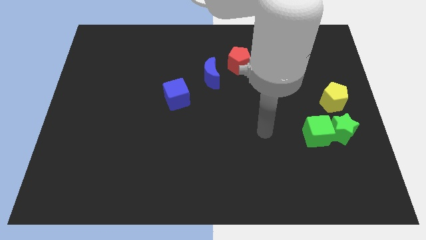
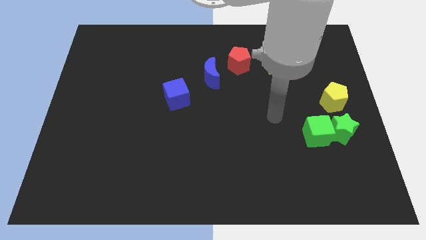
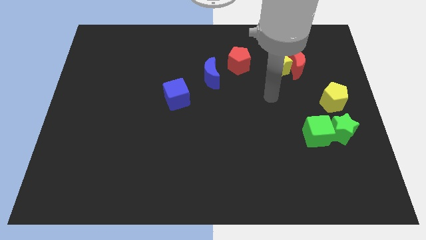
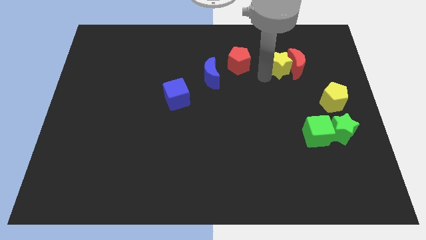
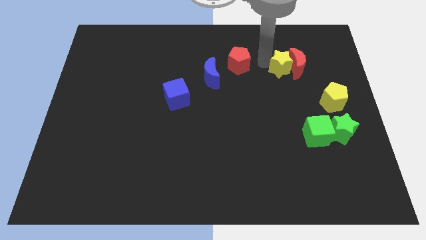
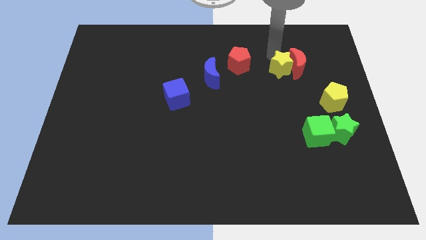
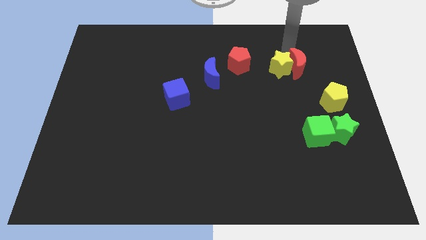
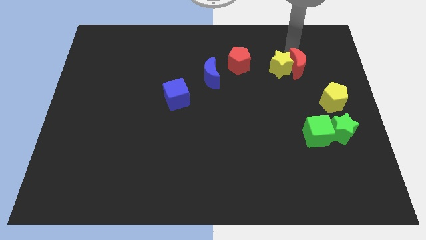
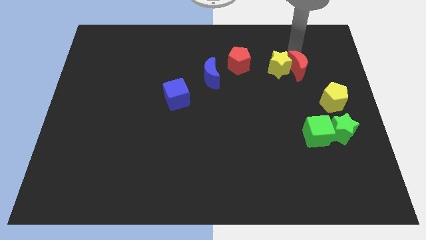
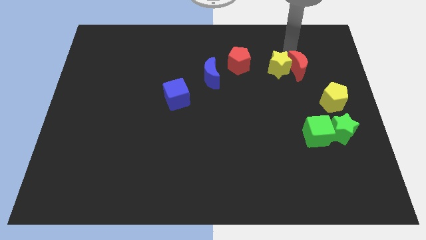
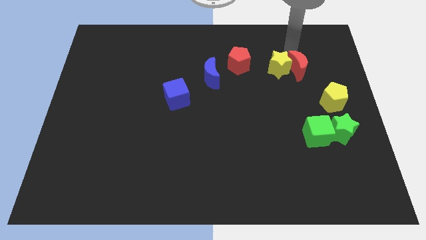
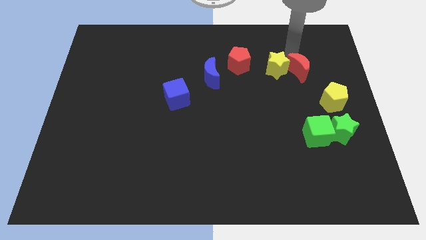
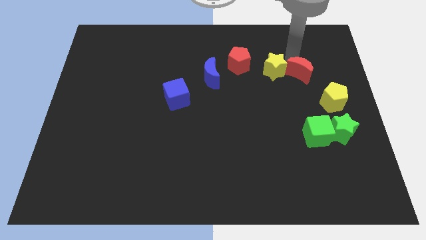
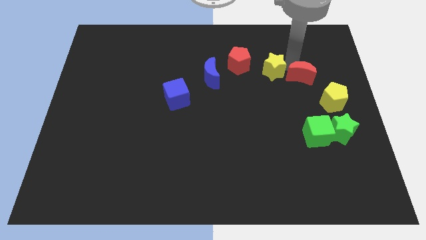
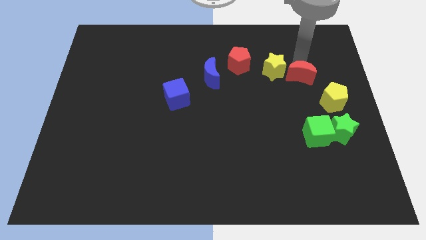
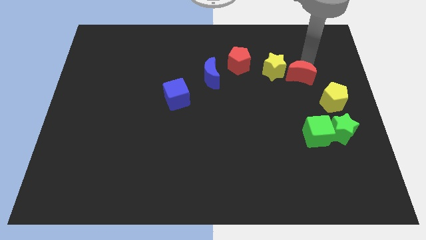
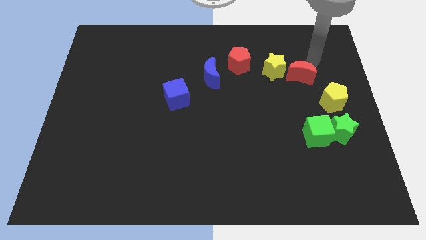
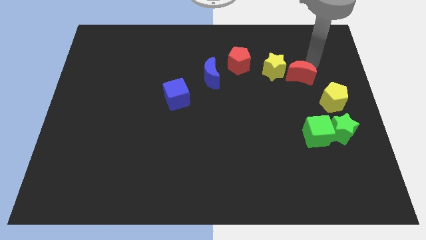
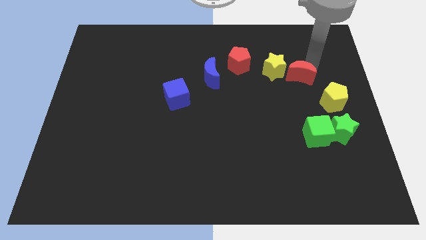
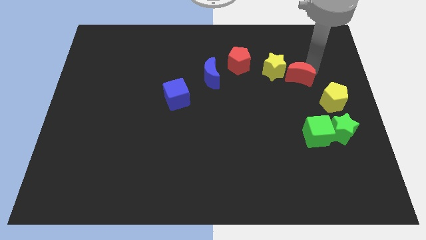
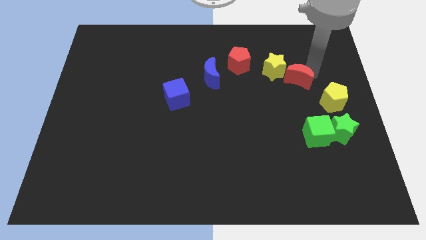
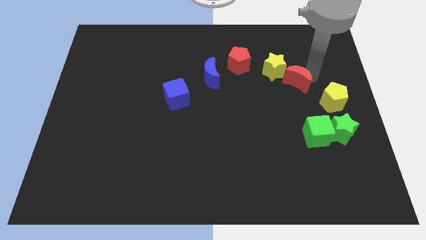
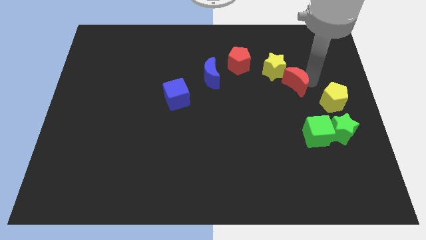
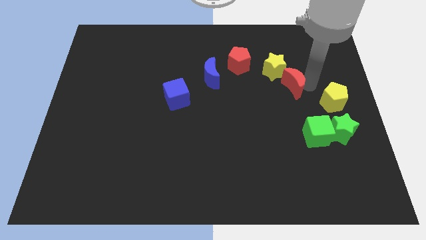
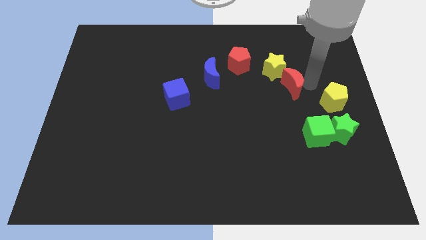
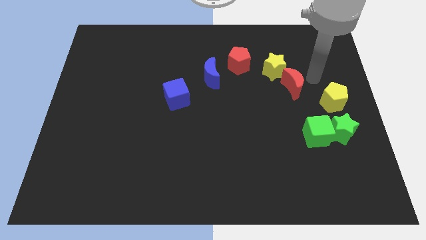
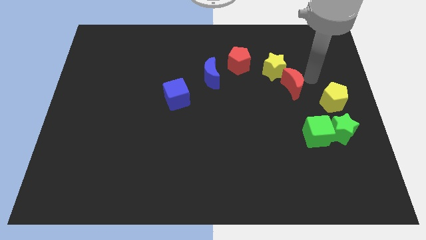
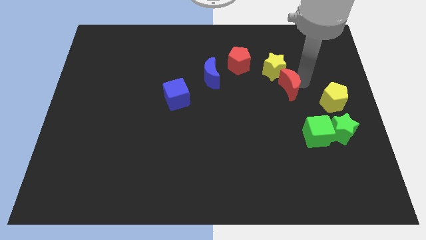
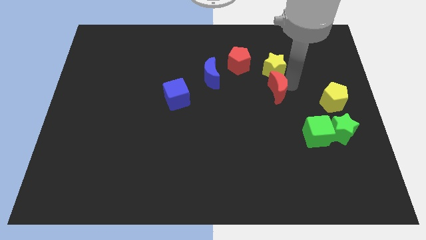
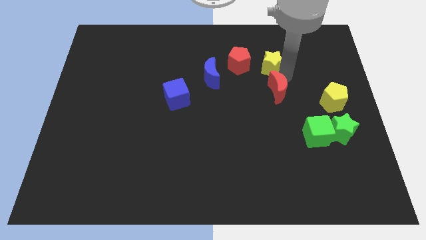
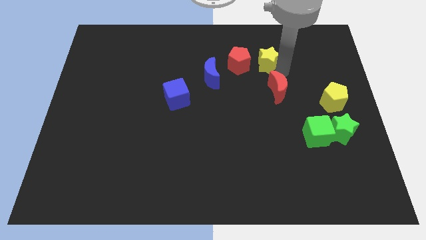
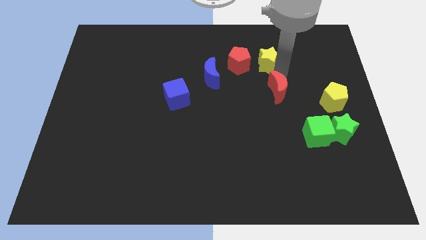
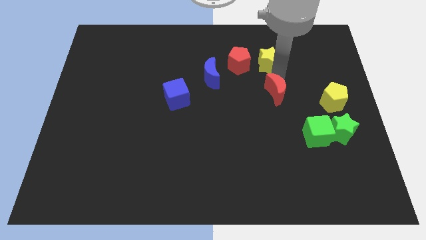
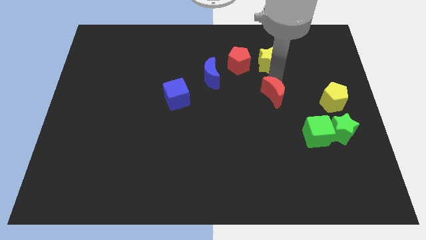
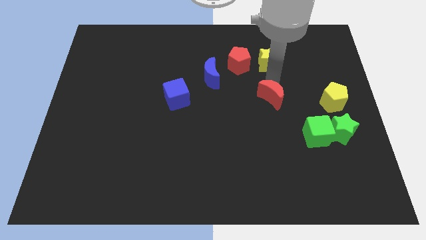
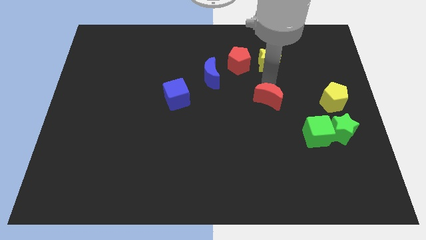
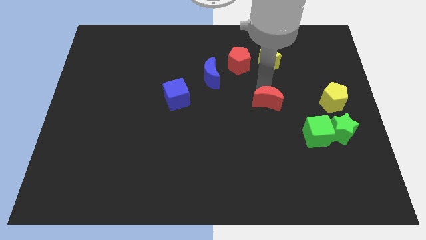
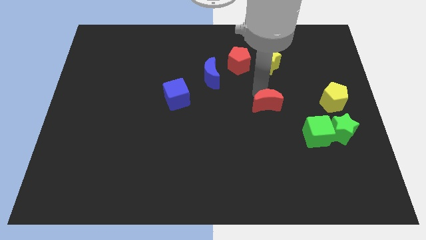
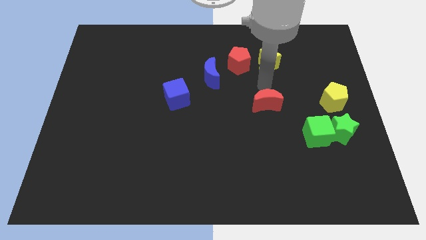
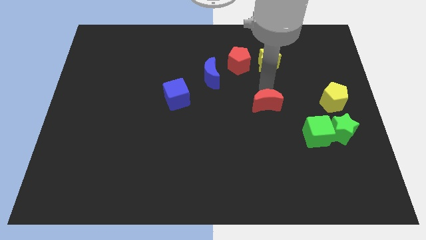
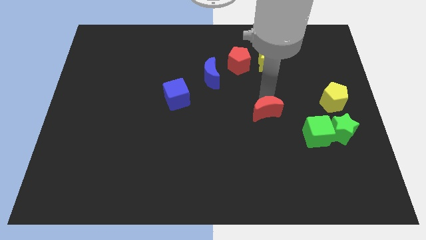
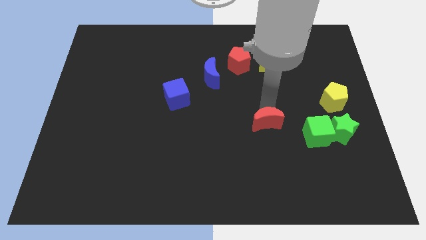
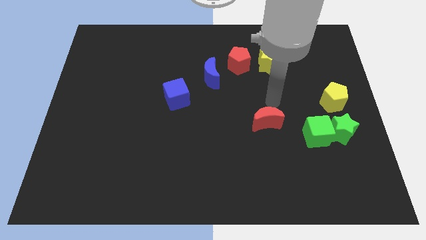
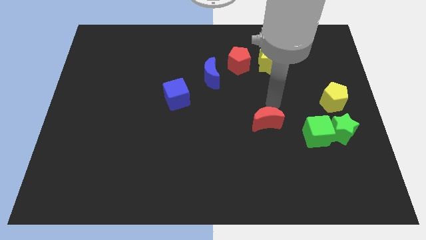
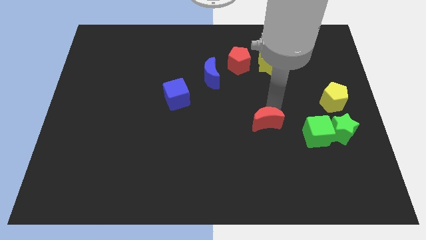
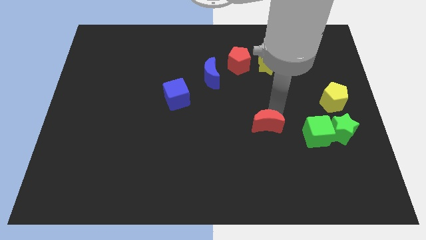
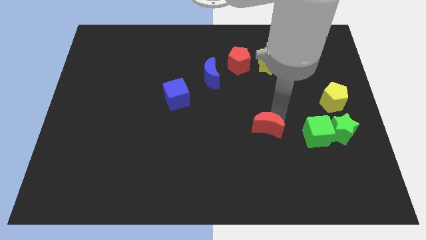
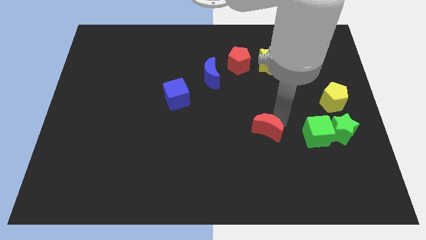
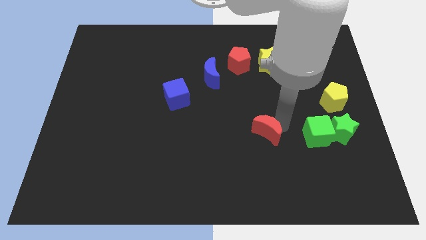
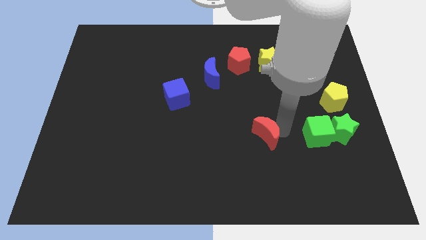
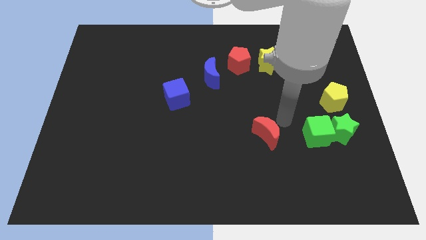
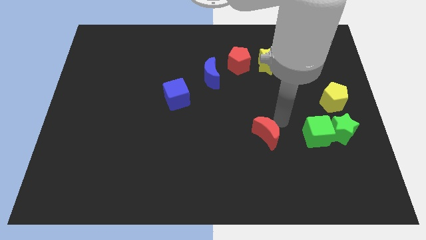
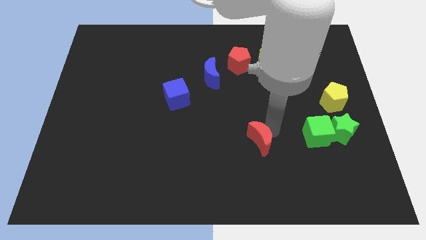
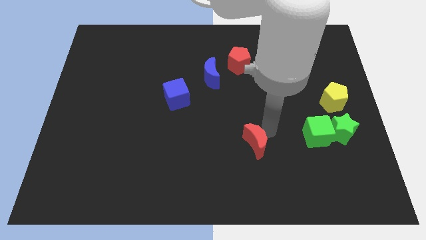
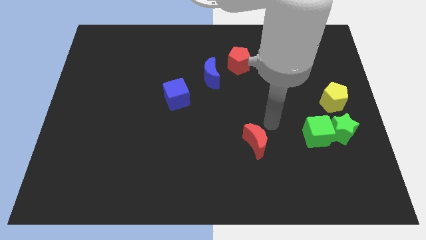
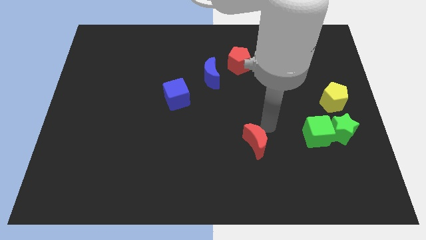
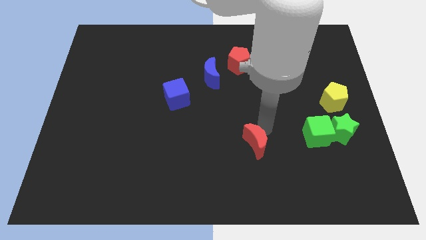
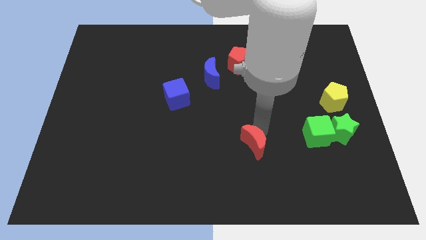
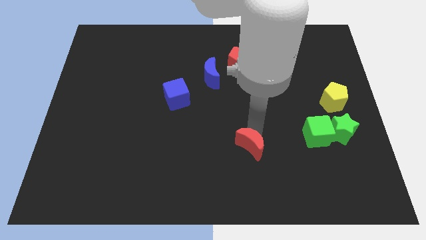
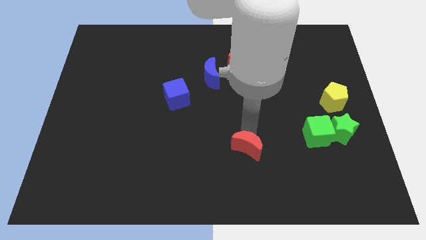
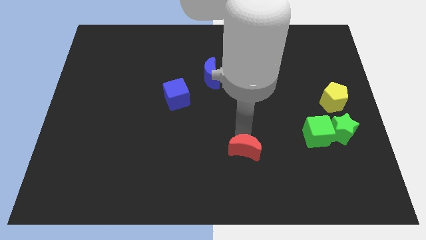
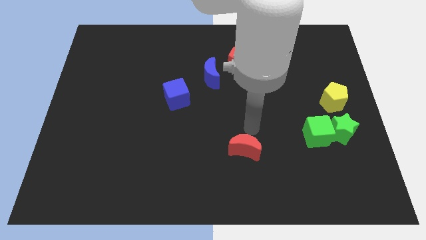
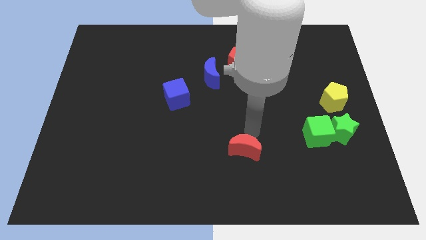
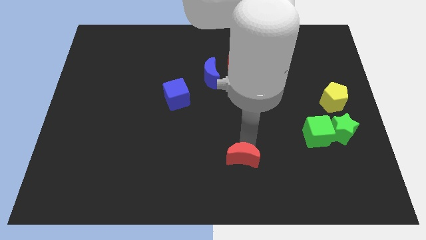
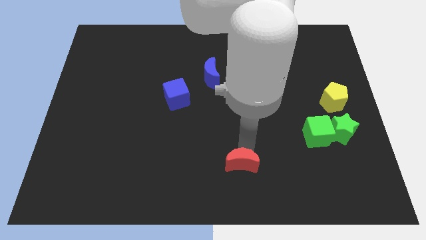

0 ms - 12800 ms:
slide the red moon to the bottom side

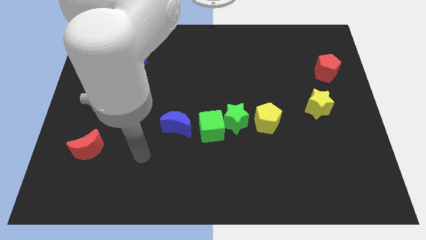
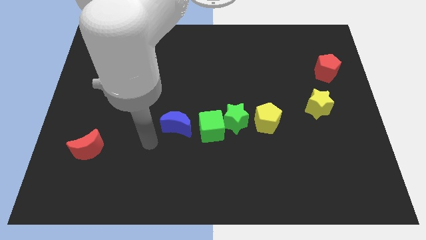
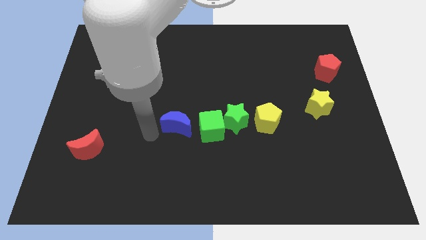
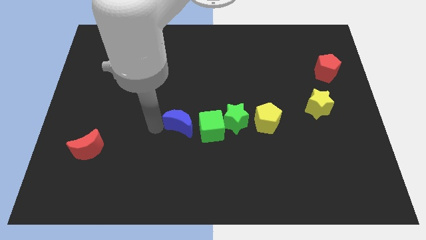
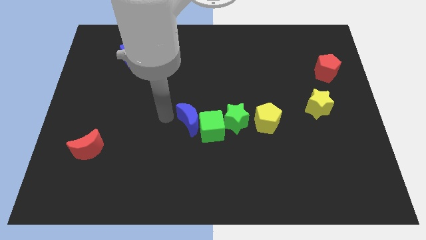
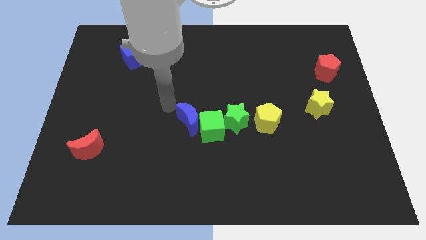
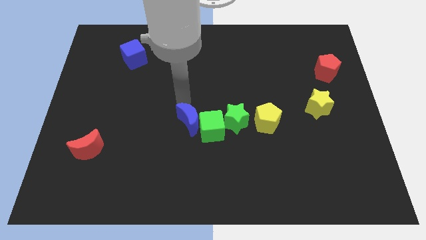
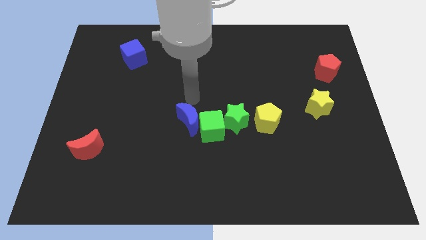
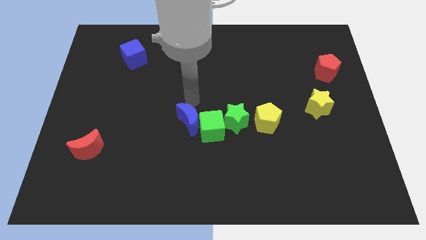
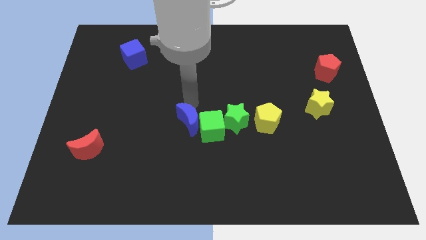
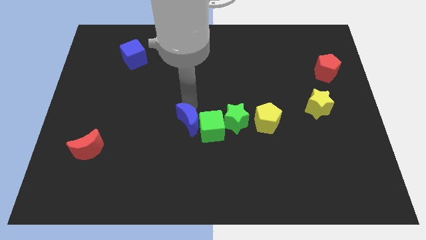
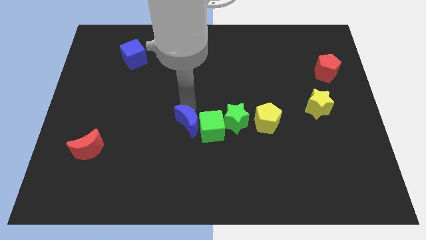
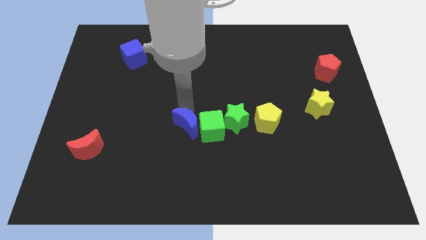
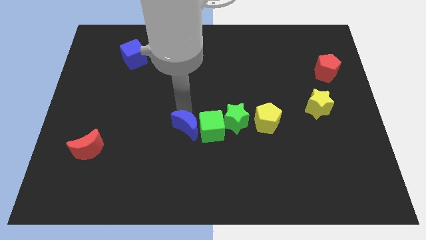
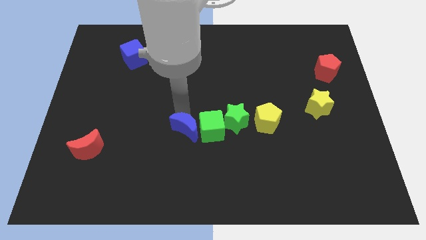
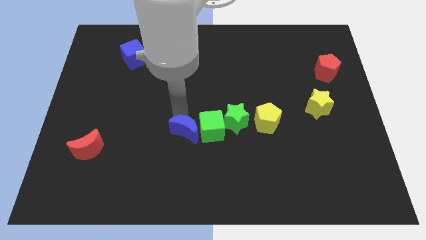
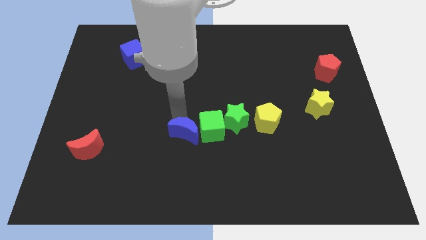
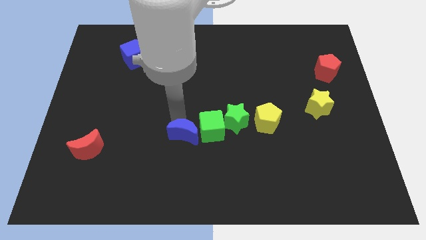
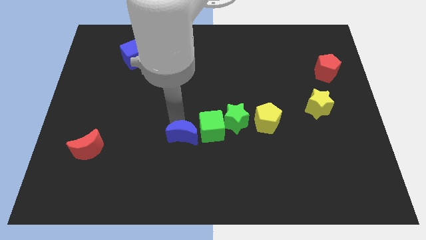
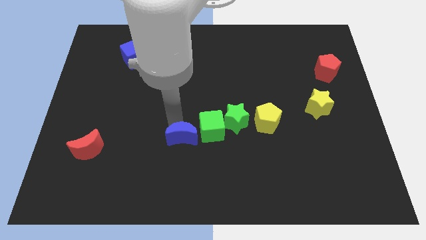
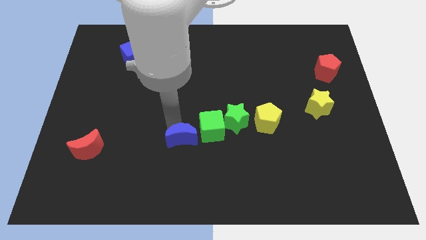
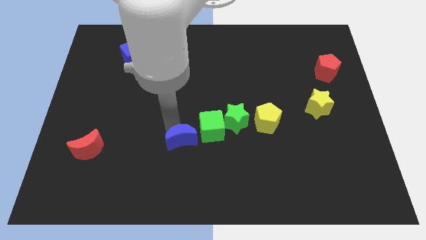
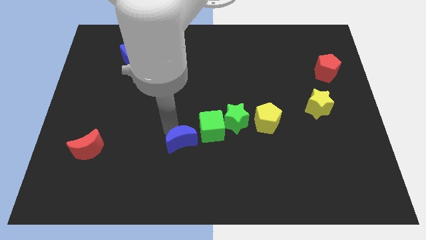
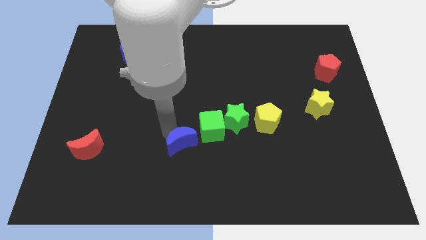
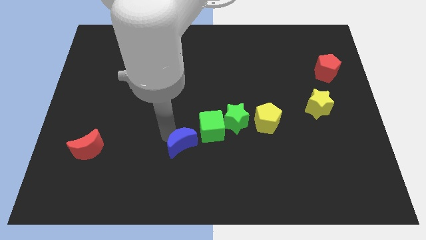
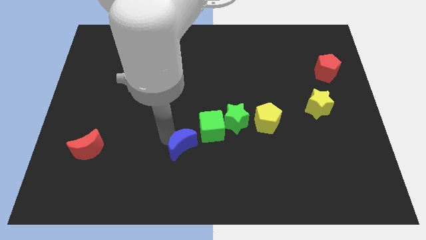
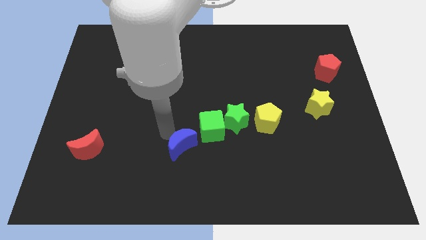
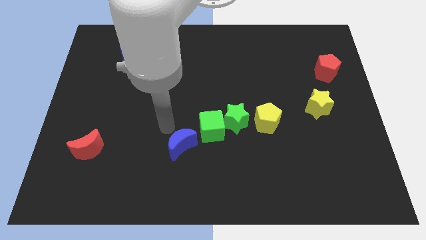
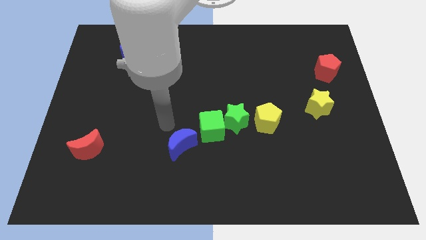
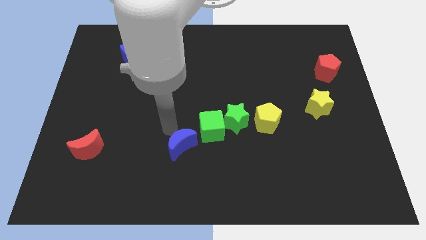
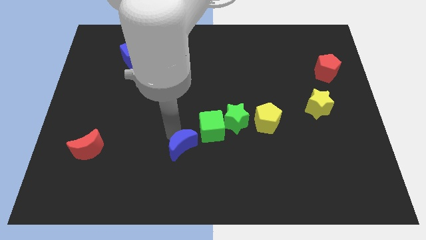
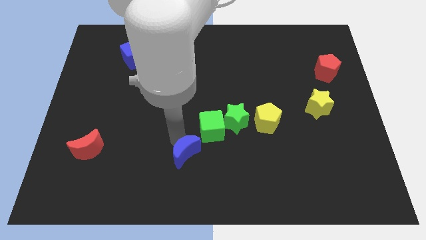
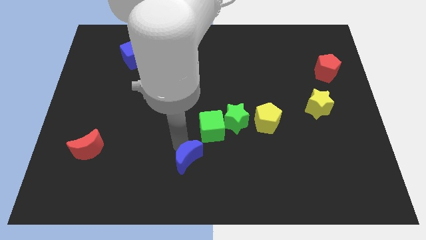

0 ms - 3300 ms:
move the blue moon to the bottom side
